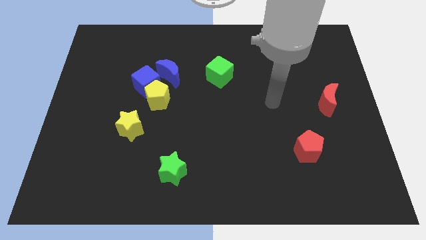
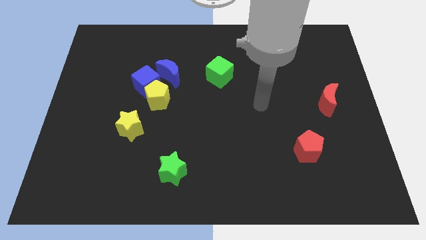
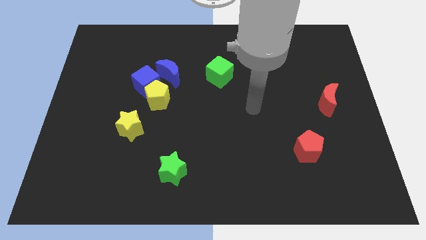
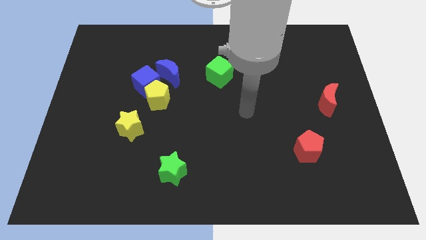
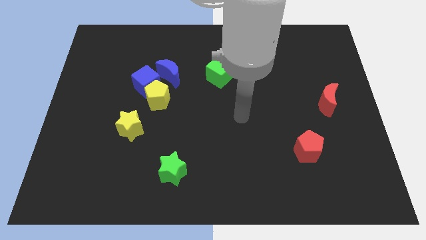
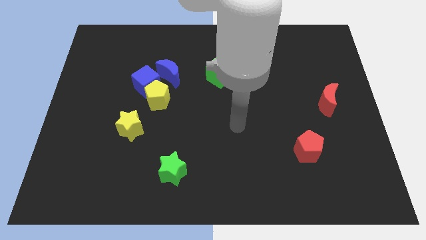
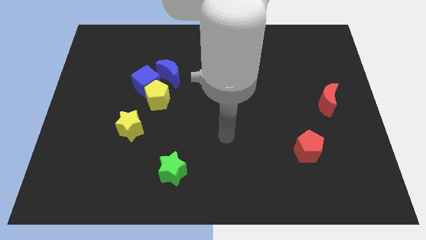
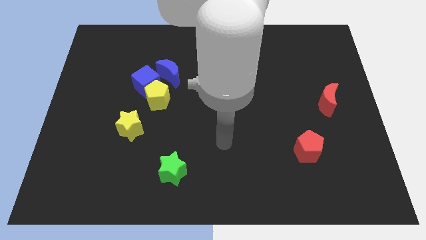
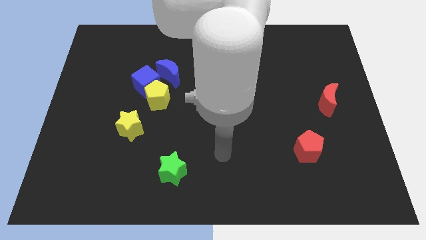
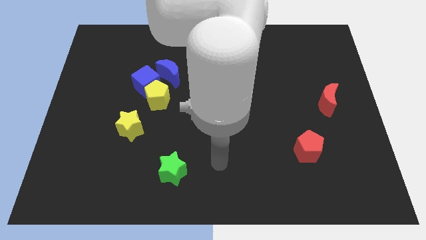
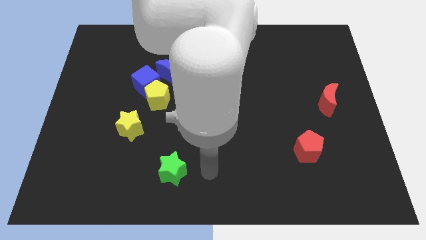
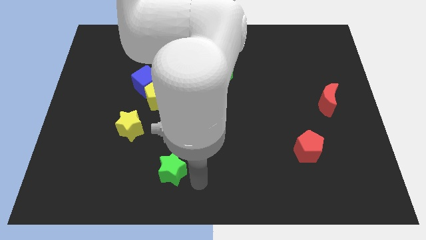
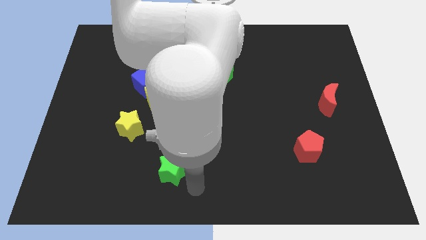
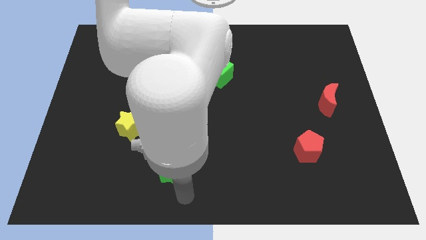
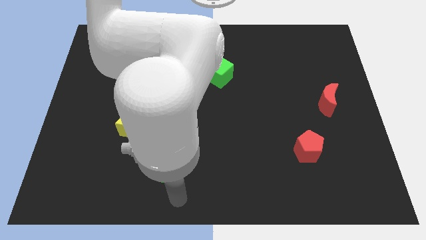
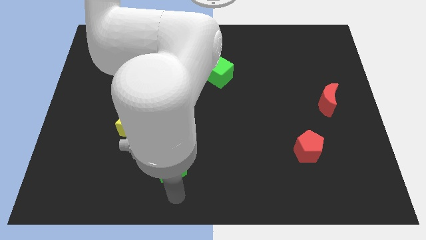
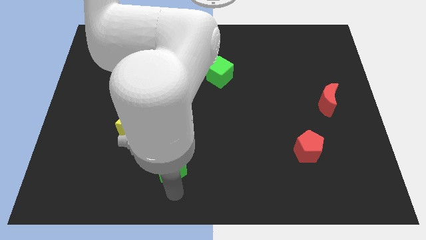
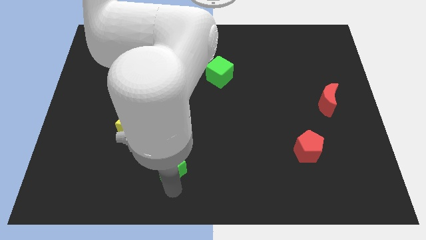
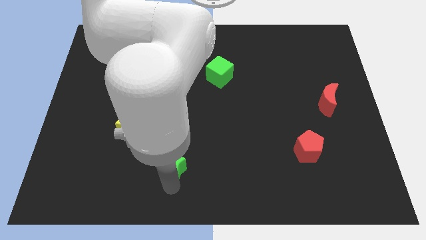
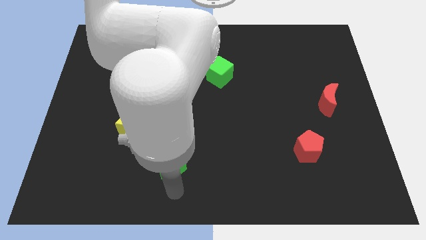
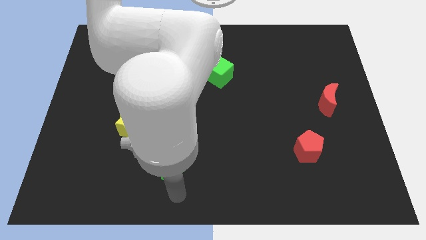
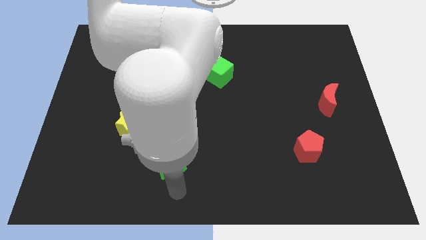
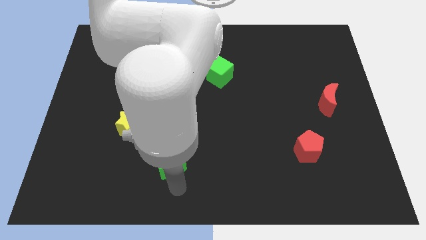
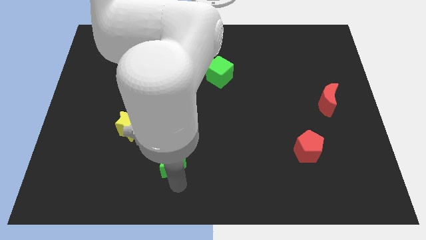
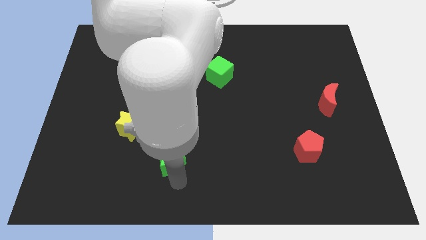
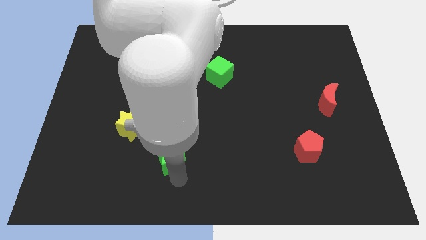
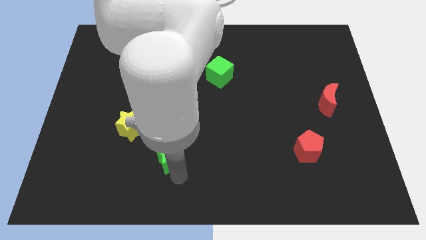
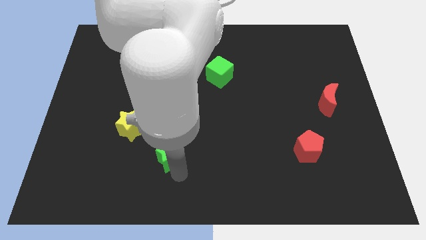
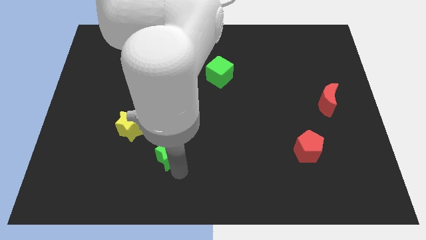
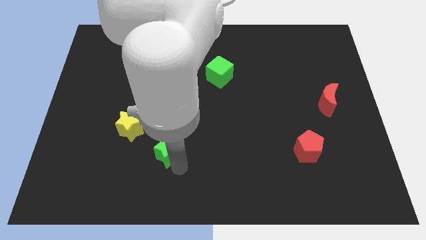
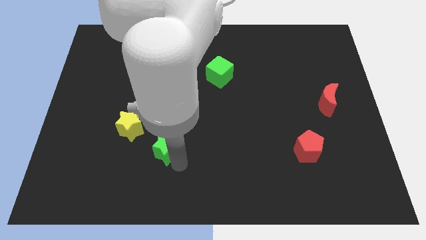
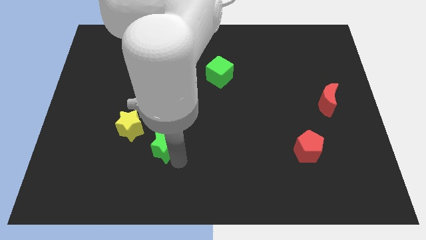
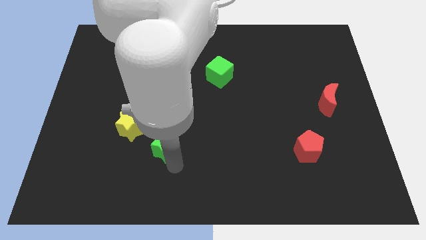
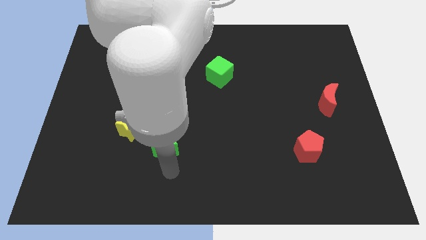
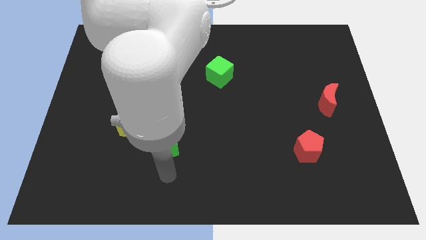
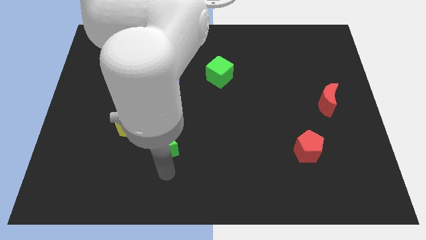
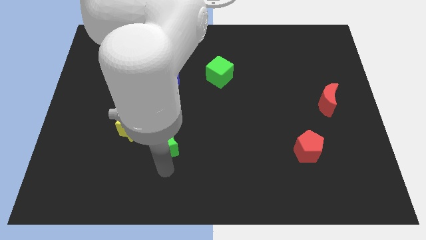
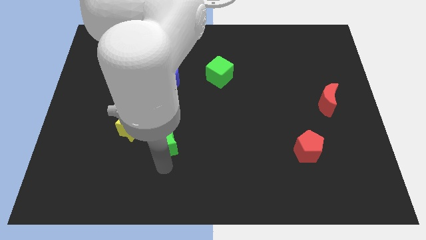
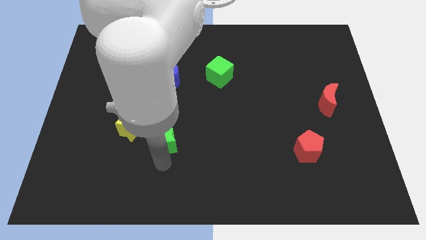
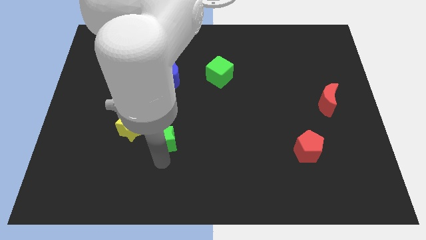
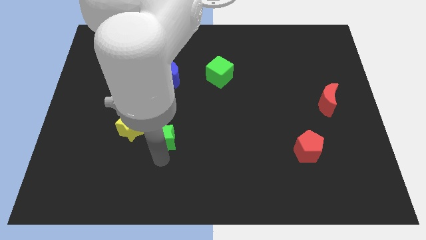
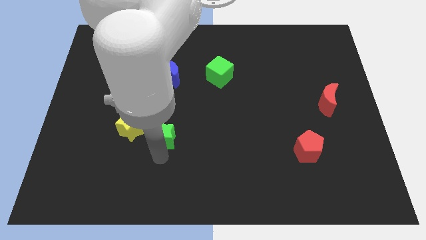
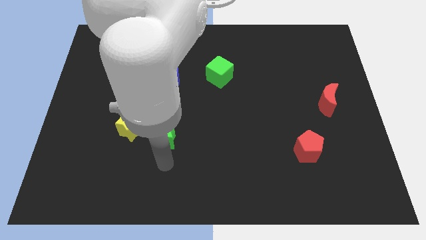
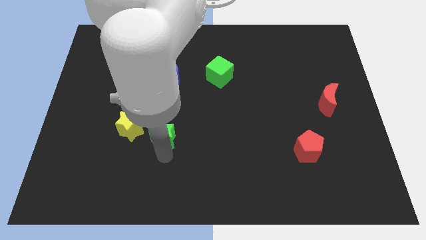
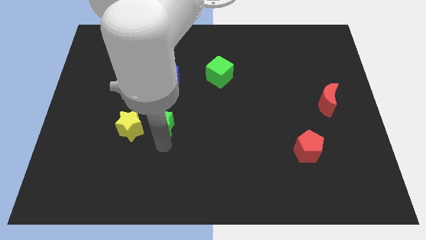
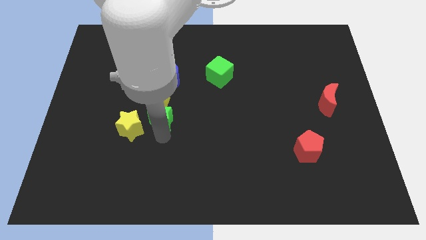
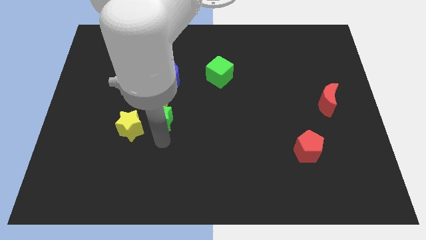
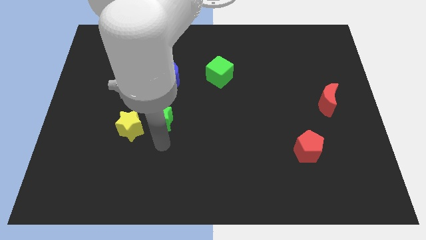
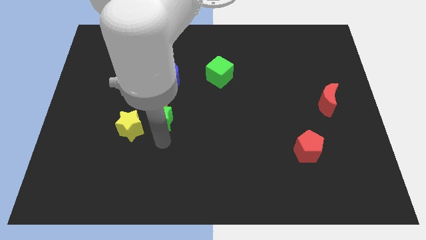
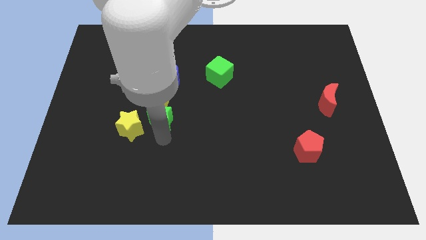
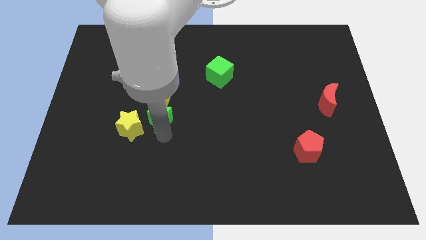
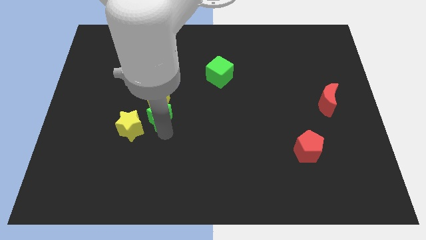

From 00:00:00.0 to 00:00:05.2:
move the green star close to the yellow pentagon

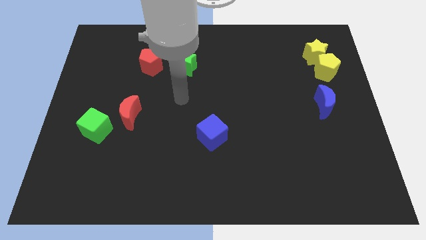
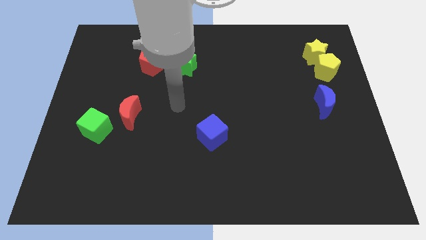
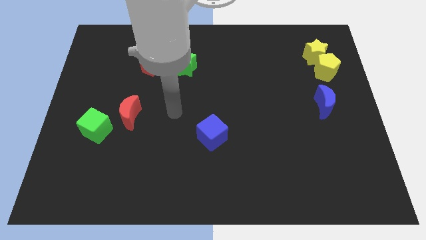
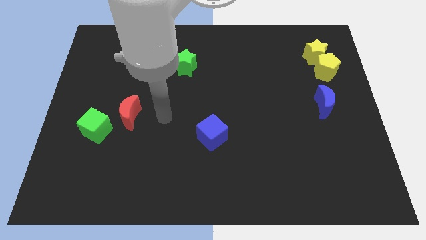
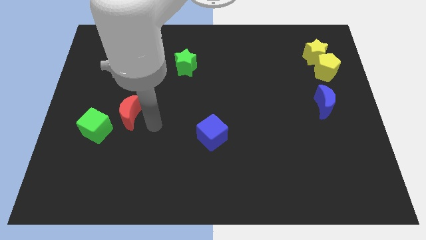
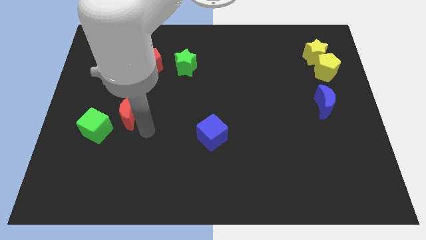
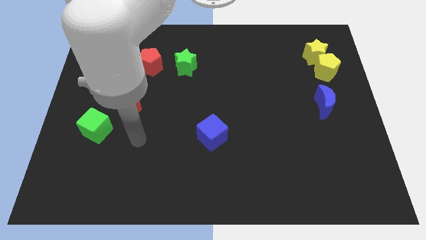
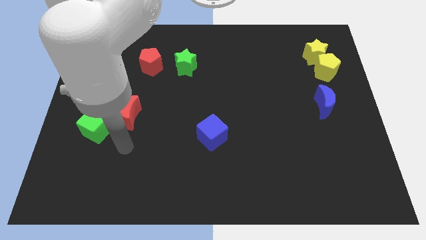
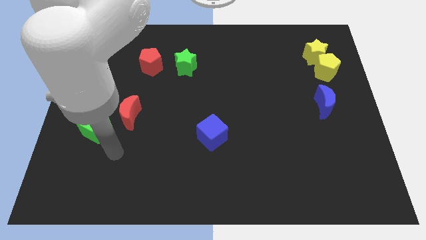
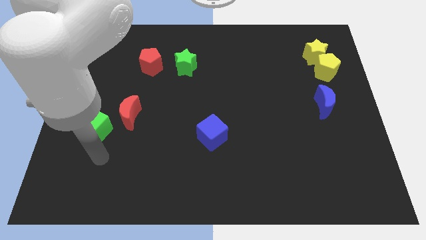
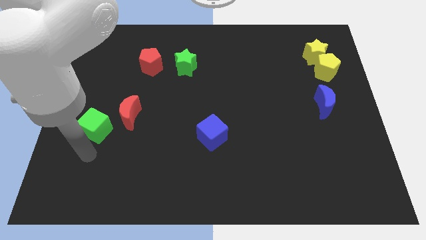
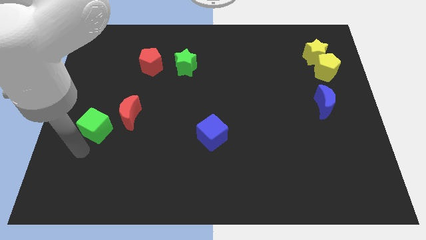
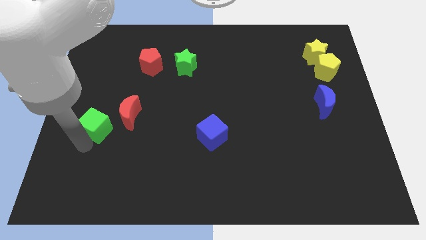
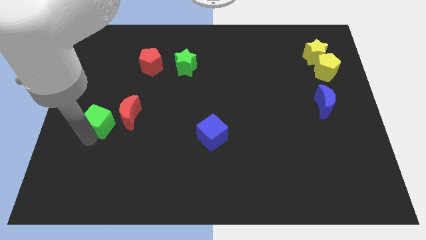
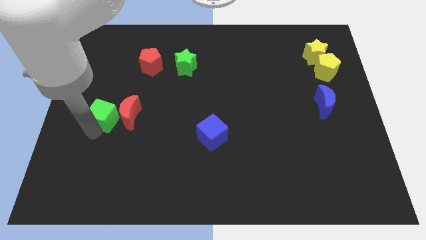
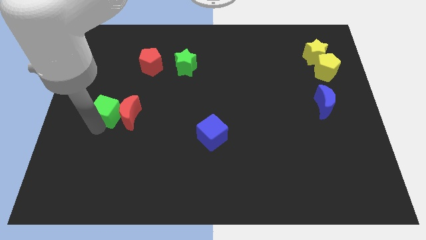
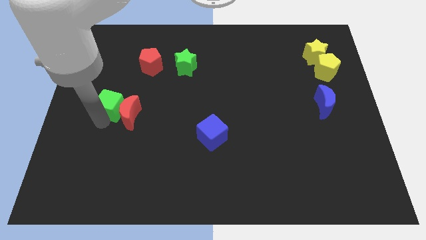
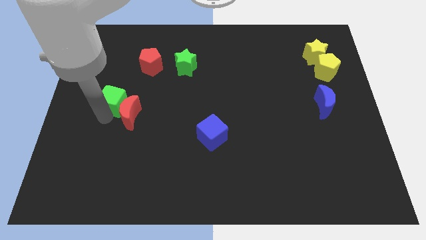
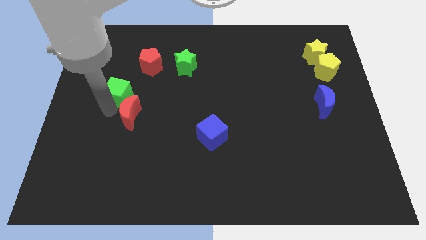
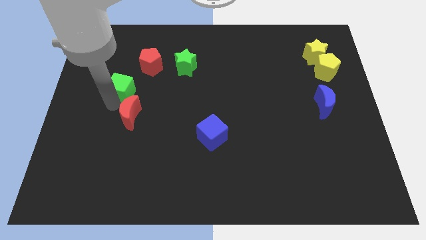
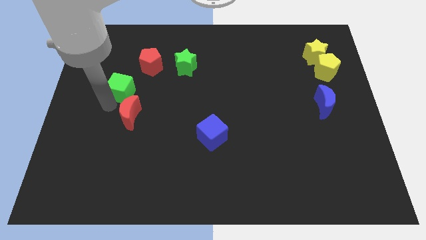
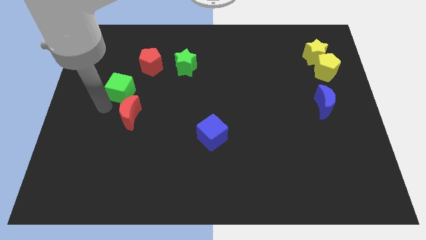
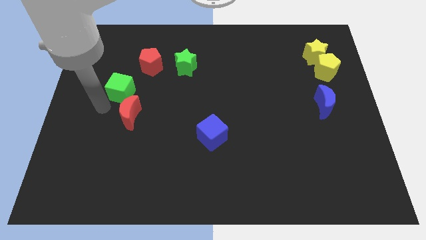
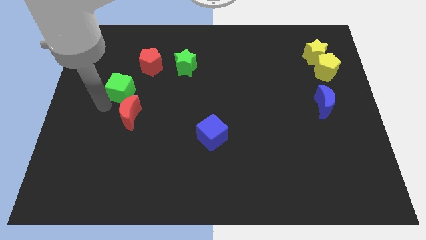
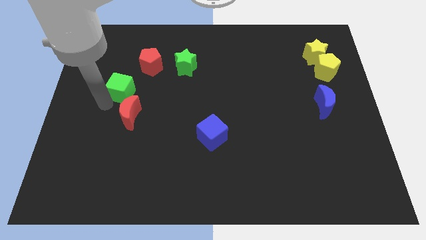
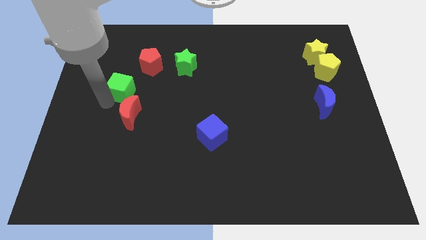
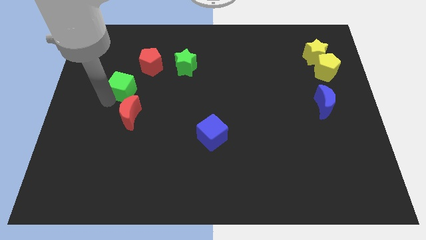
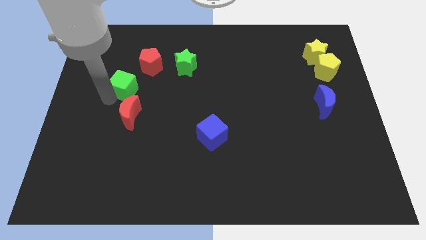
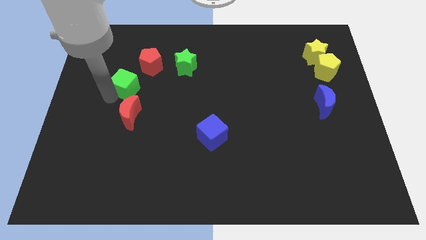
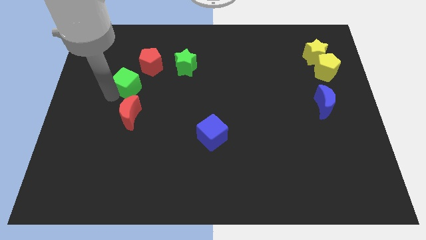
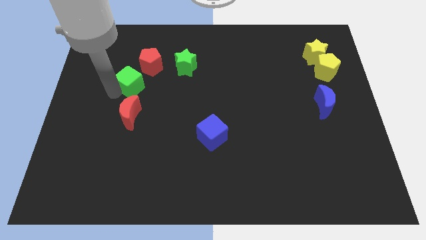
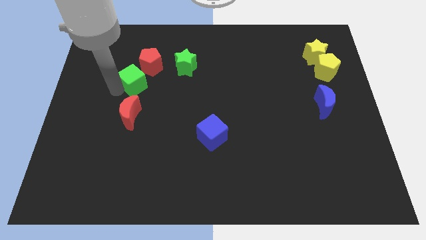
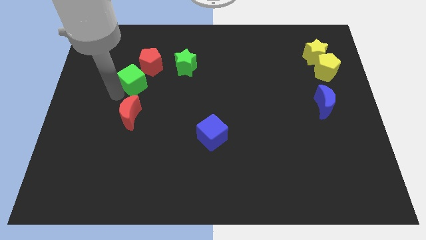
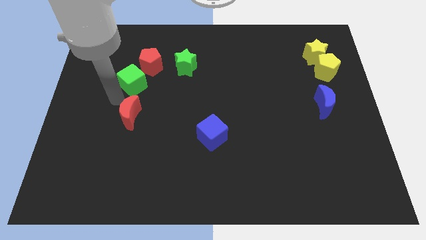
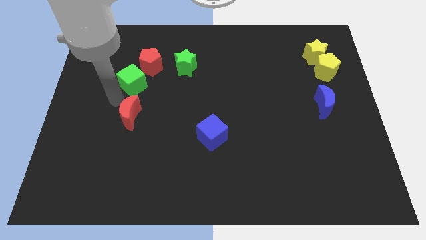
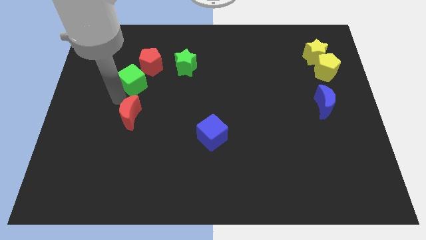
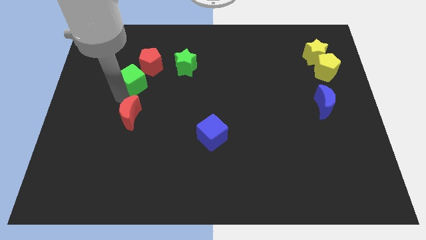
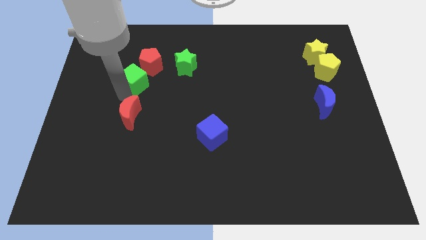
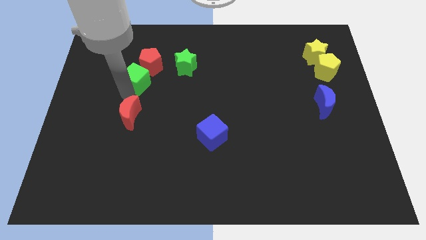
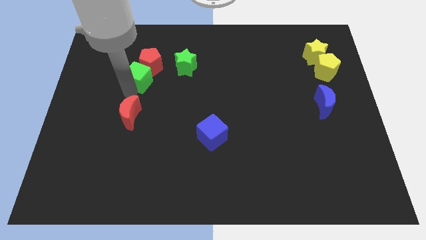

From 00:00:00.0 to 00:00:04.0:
put the green cube towards the red pentagon
